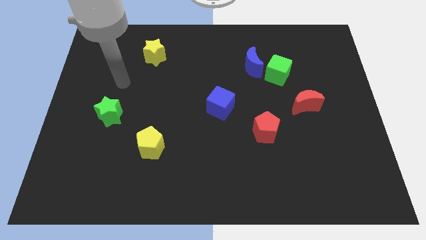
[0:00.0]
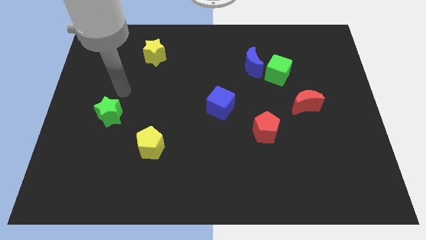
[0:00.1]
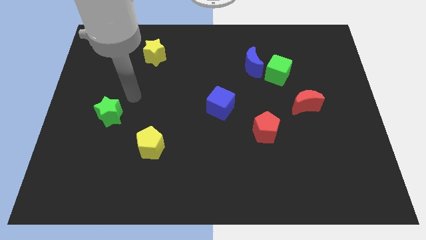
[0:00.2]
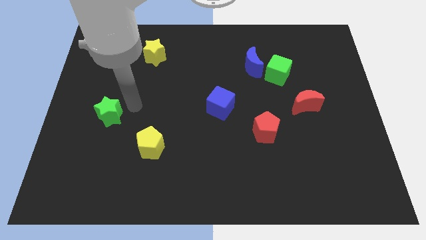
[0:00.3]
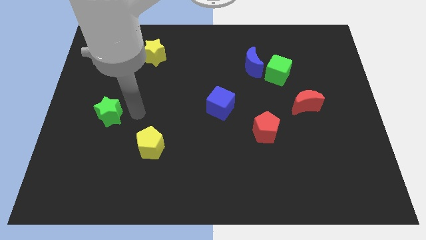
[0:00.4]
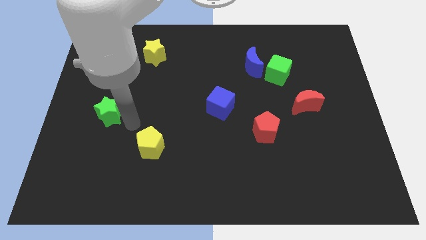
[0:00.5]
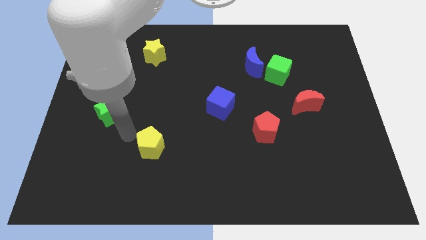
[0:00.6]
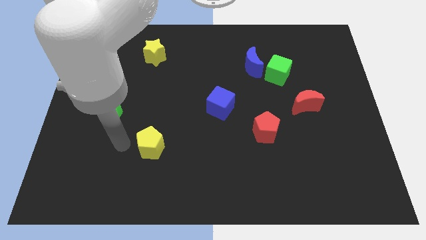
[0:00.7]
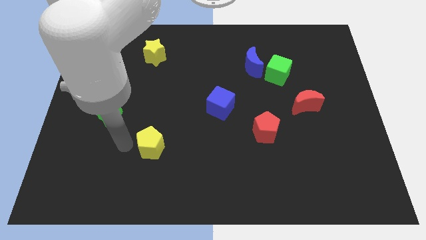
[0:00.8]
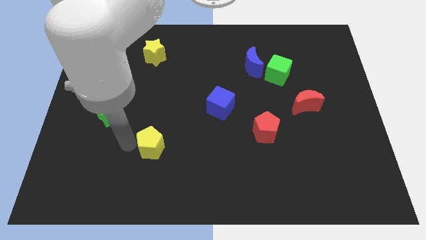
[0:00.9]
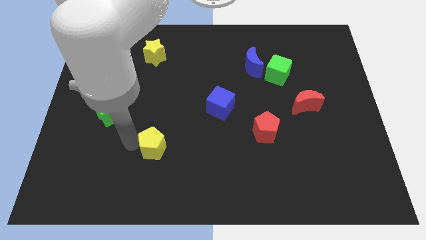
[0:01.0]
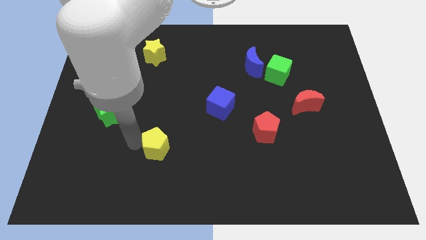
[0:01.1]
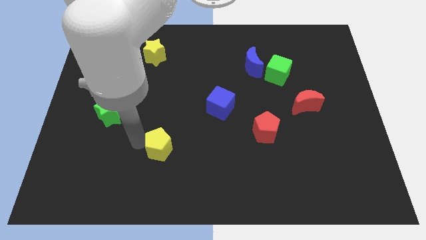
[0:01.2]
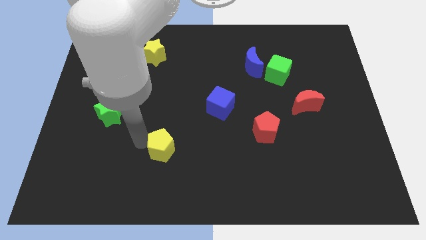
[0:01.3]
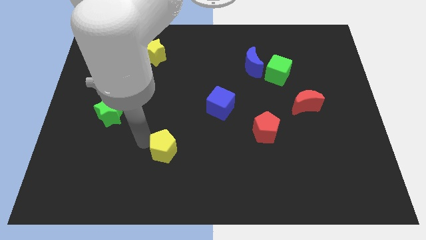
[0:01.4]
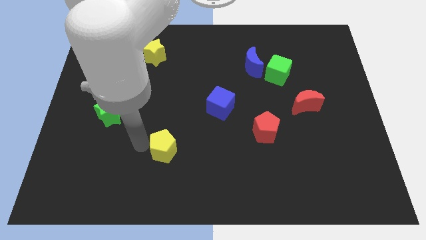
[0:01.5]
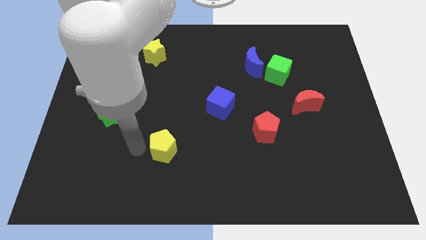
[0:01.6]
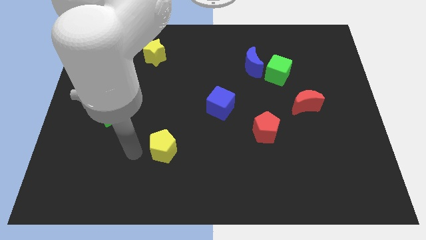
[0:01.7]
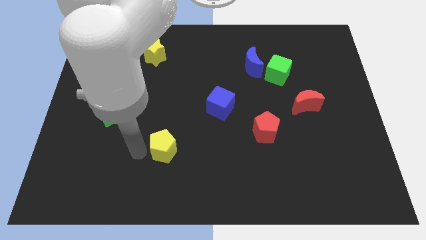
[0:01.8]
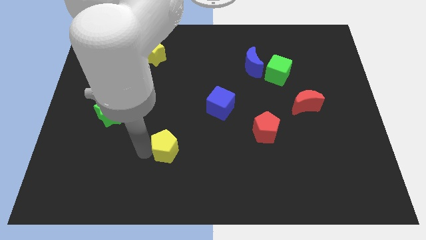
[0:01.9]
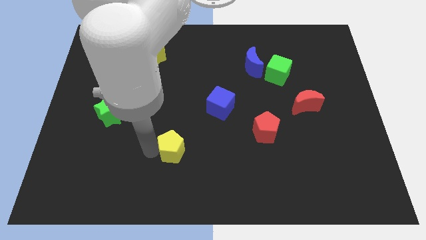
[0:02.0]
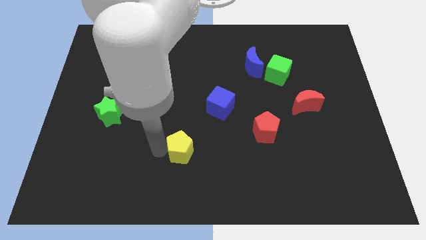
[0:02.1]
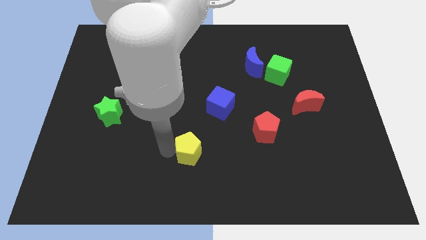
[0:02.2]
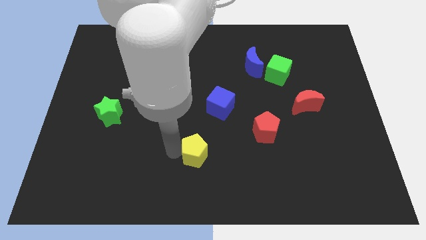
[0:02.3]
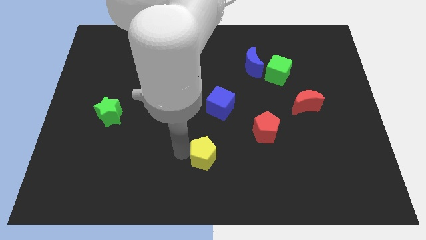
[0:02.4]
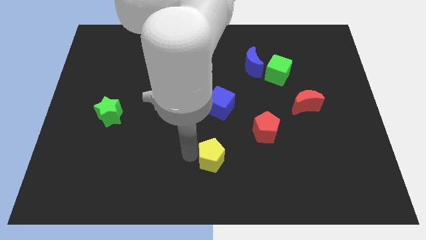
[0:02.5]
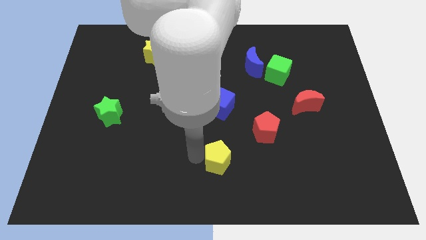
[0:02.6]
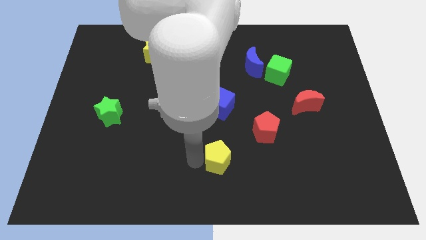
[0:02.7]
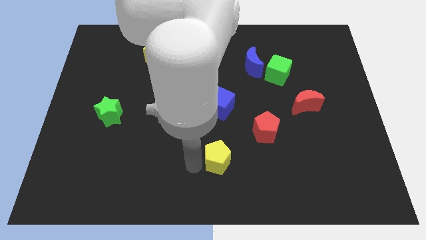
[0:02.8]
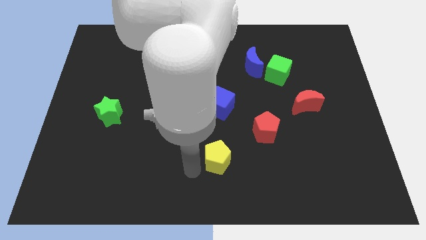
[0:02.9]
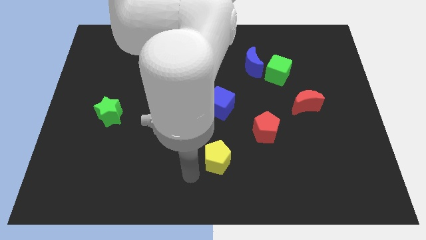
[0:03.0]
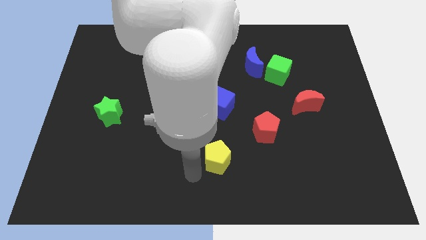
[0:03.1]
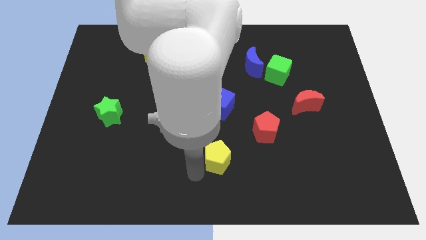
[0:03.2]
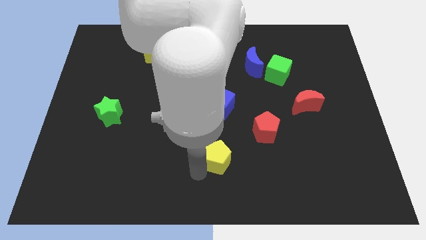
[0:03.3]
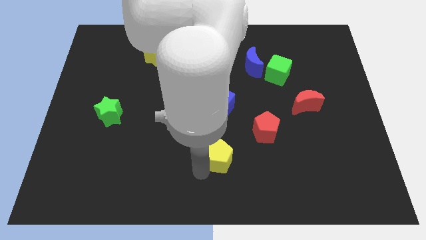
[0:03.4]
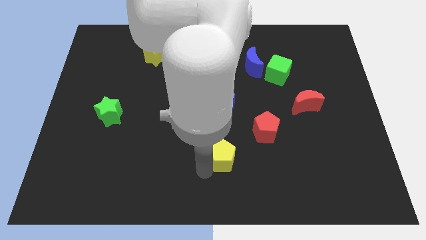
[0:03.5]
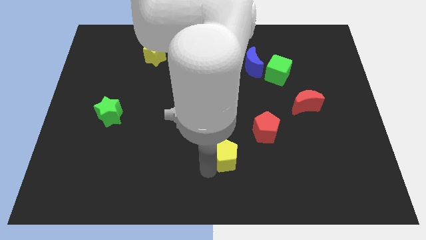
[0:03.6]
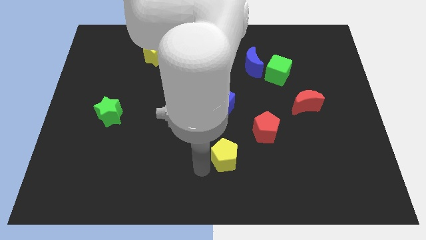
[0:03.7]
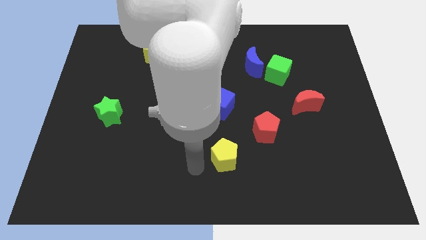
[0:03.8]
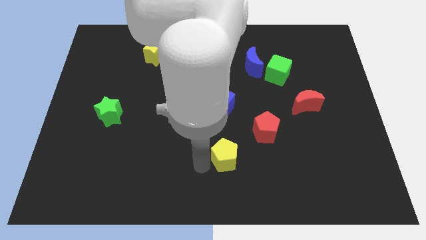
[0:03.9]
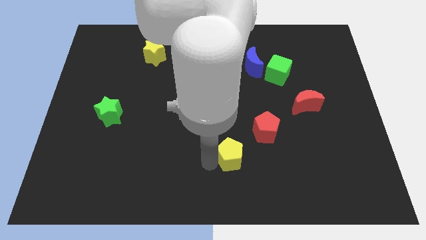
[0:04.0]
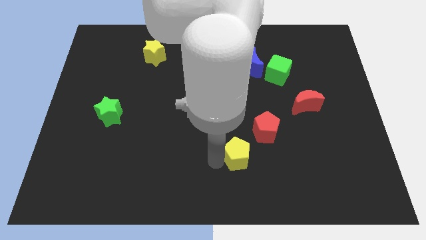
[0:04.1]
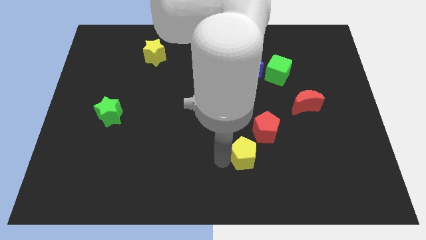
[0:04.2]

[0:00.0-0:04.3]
slide the yellow pentagon to the right

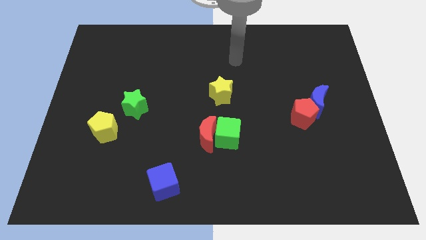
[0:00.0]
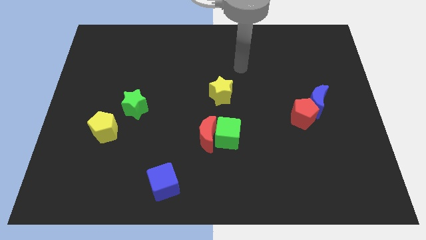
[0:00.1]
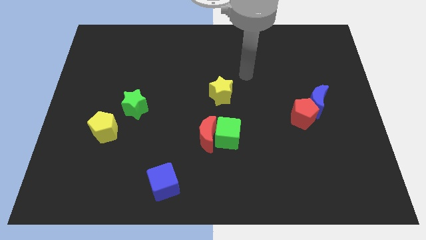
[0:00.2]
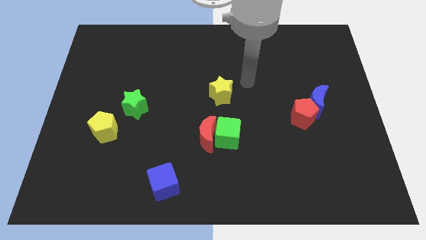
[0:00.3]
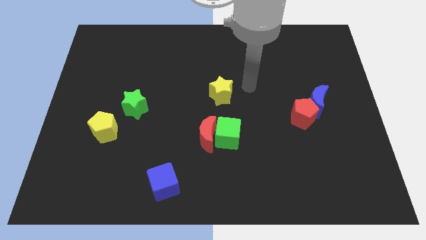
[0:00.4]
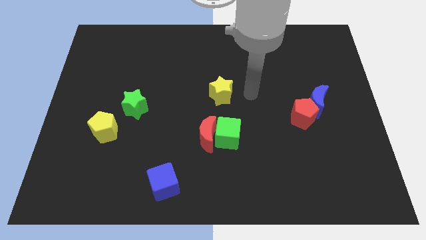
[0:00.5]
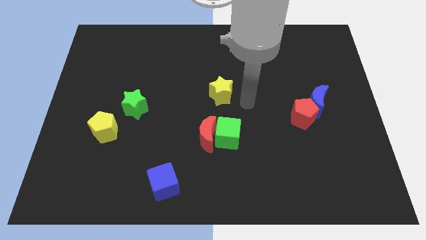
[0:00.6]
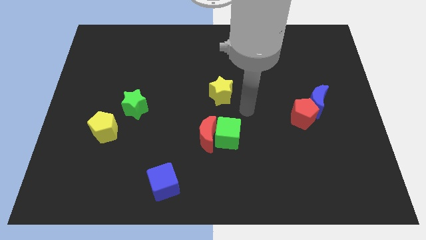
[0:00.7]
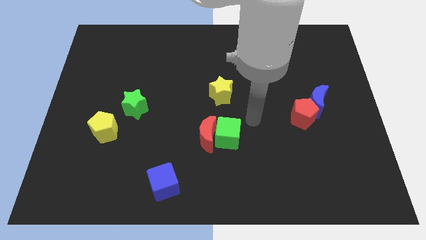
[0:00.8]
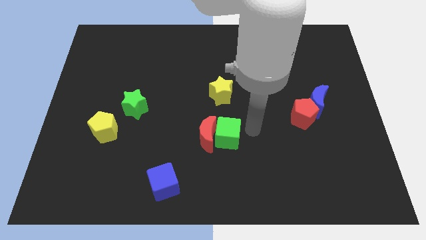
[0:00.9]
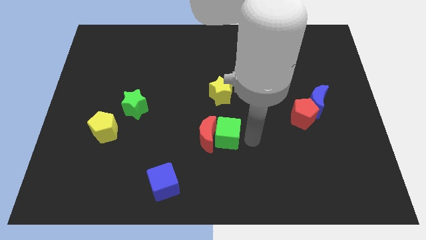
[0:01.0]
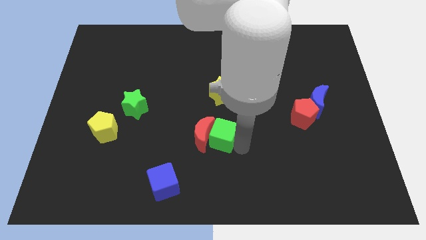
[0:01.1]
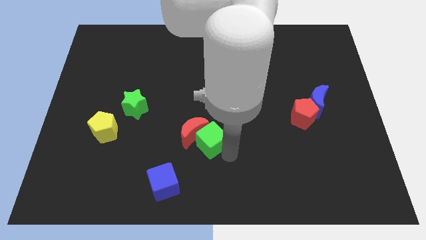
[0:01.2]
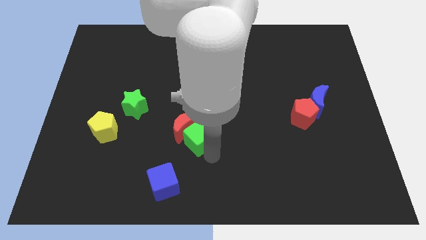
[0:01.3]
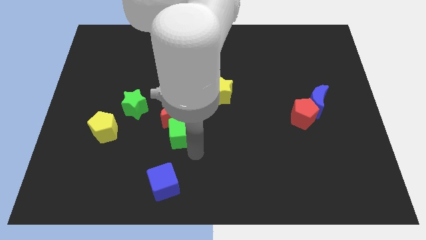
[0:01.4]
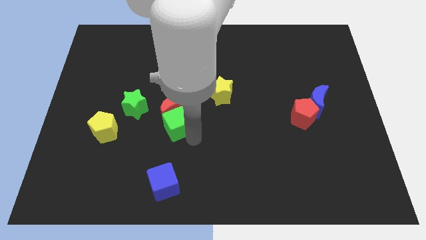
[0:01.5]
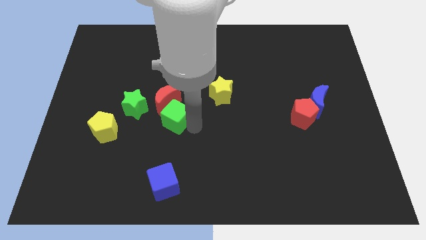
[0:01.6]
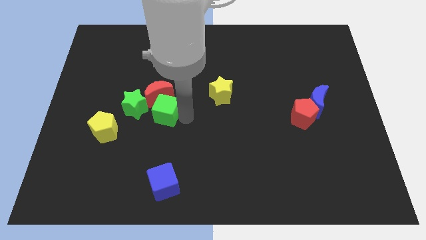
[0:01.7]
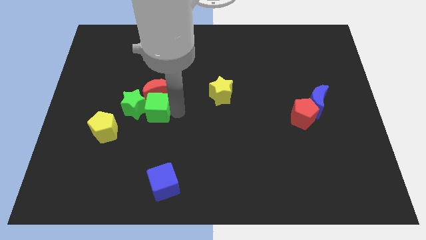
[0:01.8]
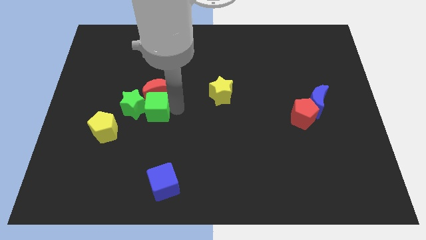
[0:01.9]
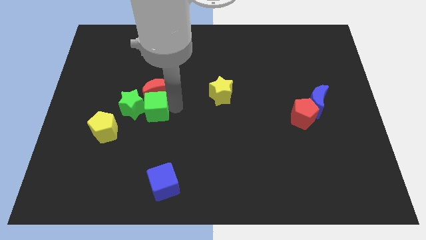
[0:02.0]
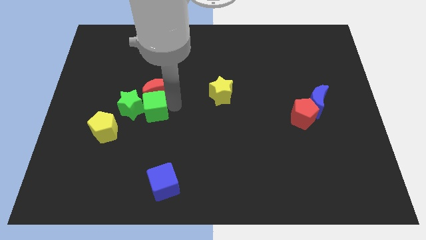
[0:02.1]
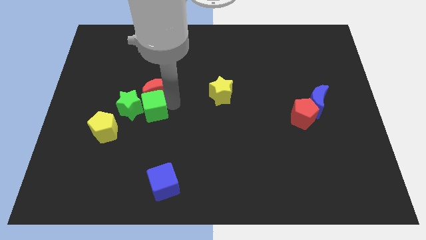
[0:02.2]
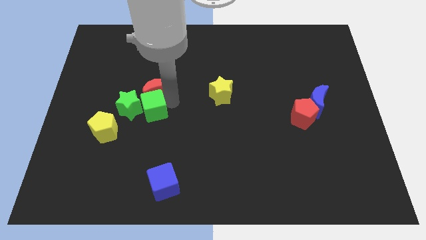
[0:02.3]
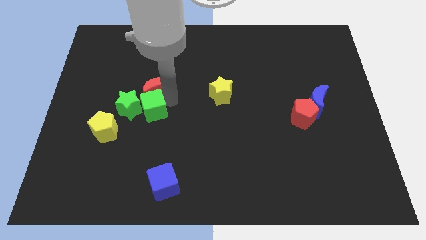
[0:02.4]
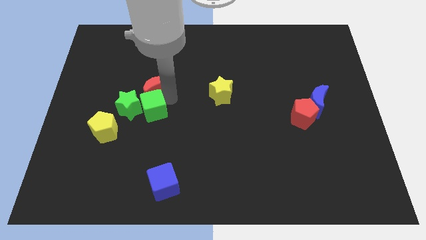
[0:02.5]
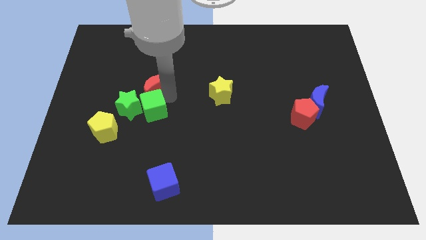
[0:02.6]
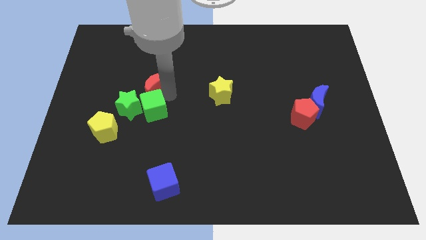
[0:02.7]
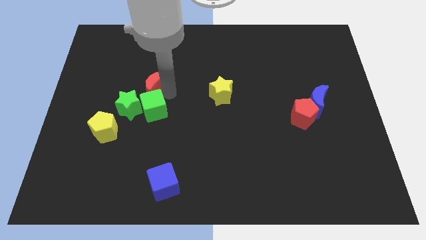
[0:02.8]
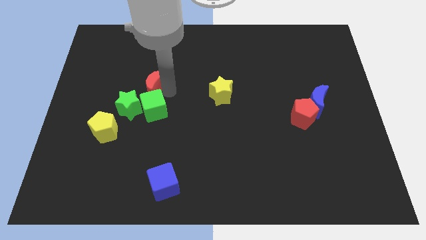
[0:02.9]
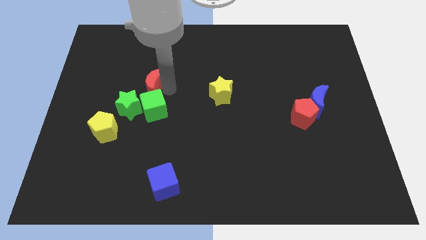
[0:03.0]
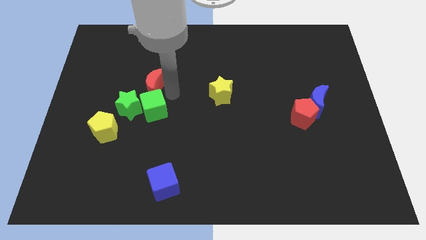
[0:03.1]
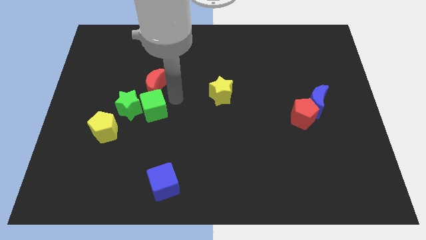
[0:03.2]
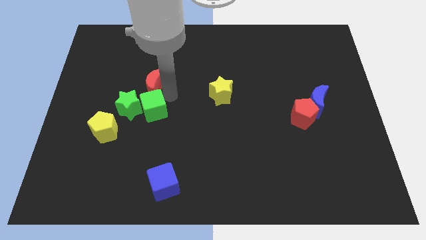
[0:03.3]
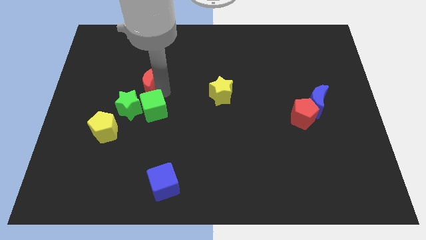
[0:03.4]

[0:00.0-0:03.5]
slide the red moon upwards and then to the left

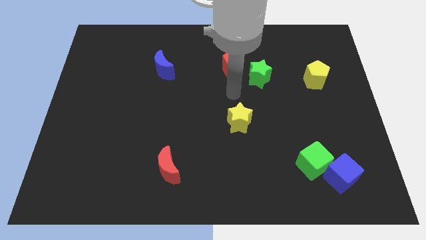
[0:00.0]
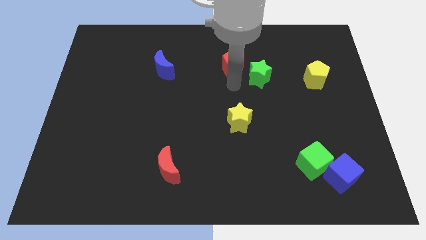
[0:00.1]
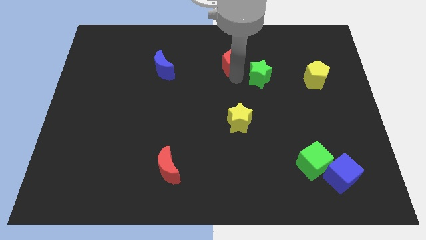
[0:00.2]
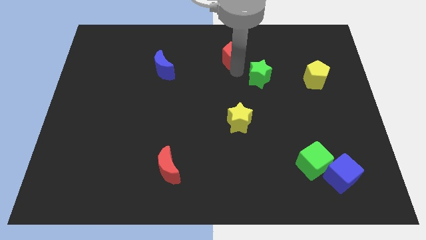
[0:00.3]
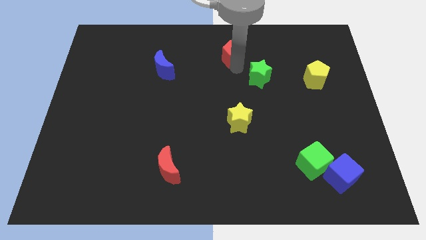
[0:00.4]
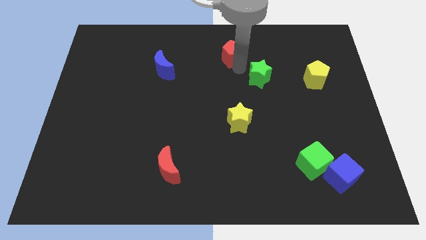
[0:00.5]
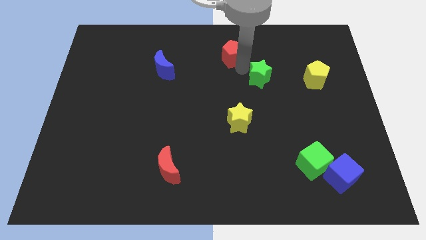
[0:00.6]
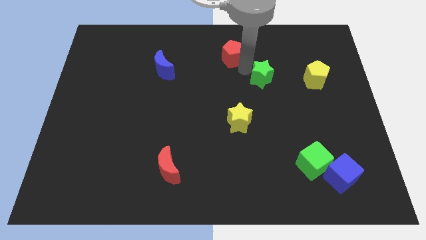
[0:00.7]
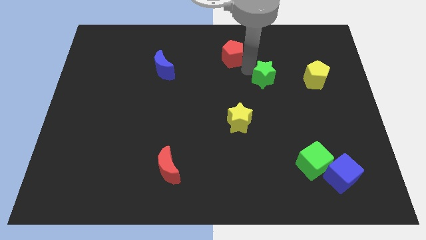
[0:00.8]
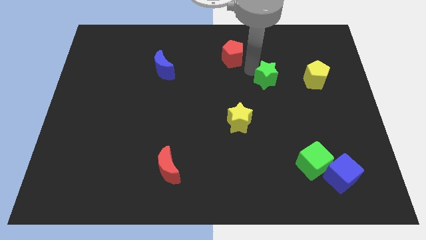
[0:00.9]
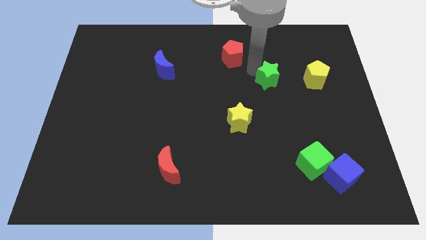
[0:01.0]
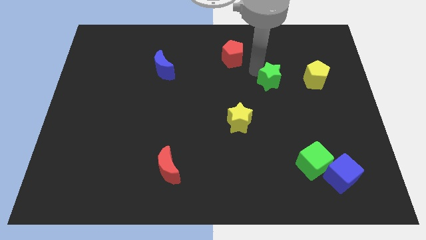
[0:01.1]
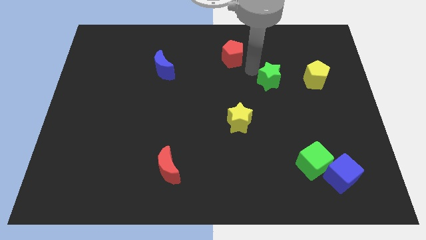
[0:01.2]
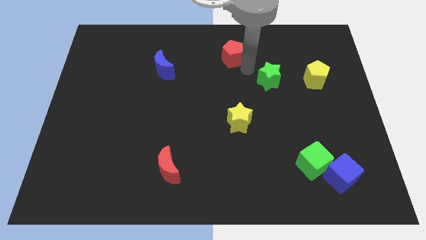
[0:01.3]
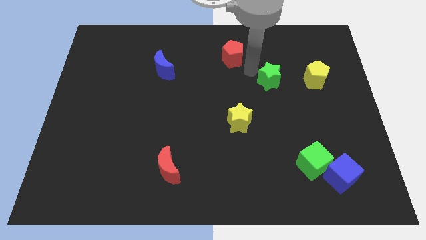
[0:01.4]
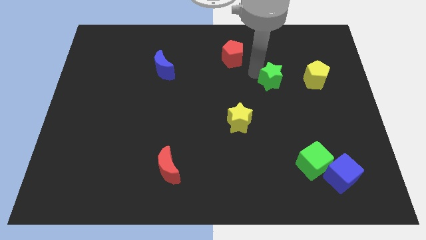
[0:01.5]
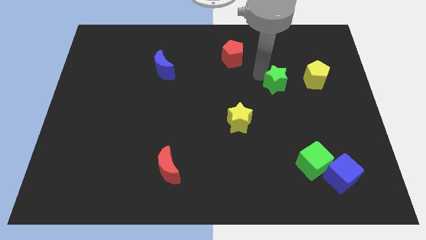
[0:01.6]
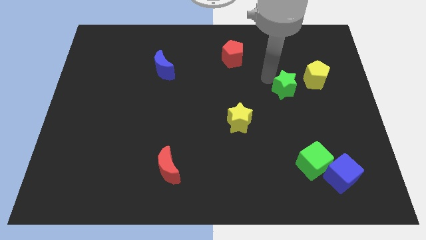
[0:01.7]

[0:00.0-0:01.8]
slightly push the green star diagonally down and to the right
